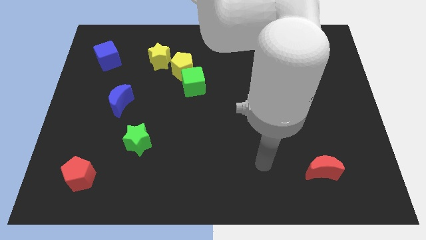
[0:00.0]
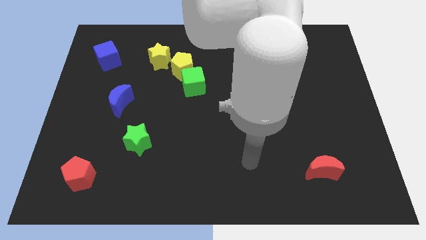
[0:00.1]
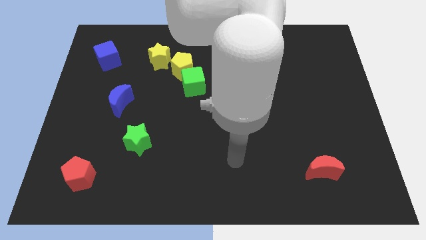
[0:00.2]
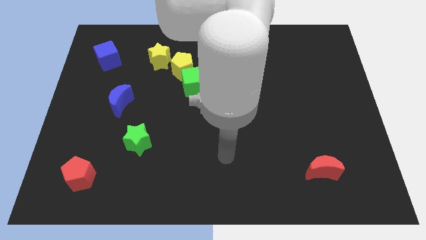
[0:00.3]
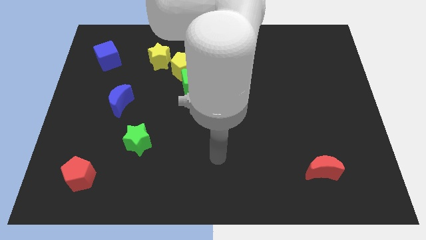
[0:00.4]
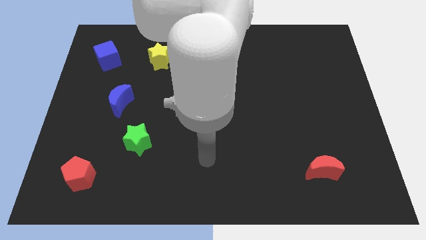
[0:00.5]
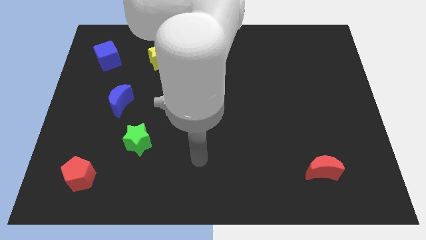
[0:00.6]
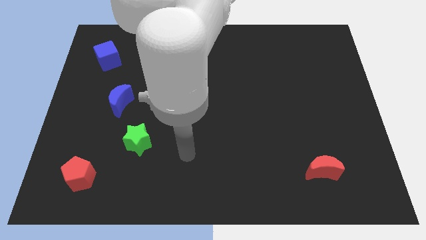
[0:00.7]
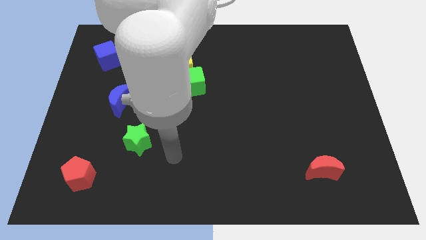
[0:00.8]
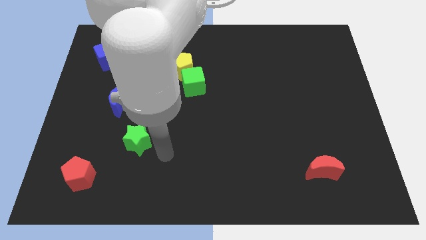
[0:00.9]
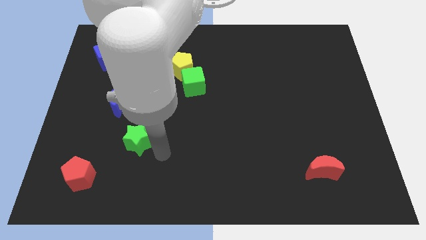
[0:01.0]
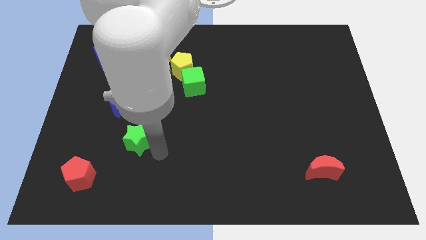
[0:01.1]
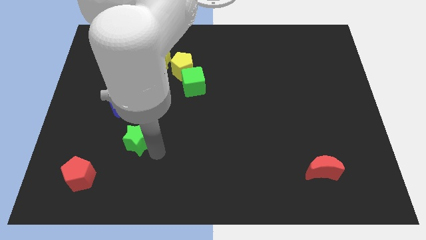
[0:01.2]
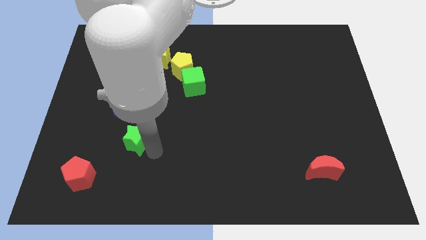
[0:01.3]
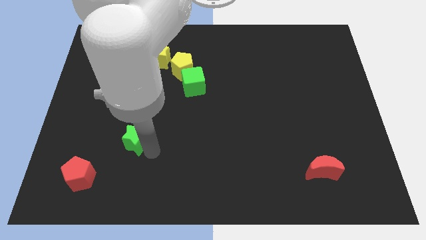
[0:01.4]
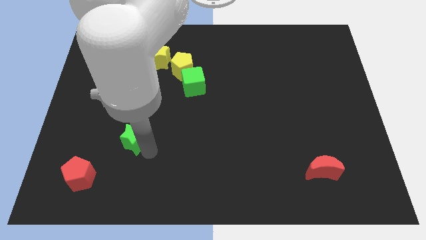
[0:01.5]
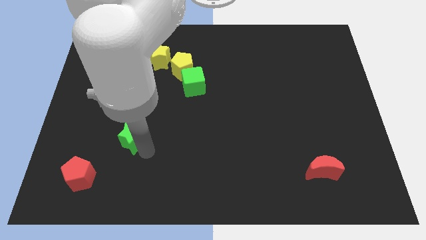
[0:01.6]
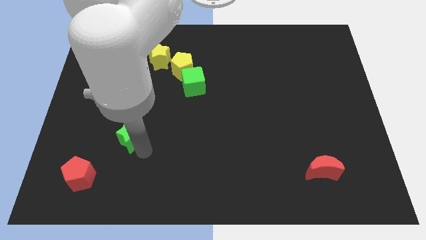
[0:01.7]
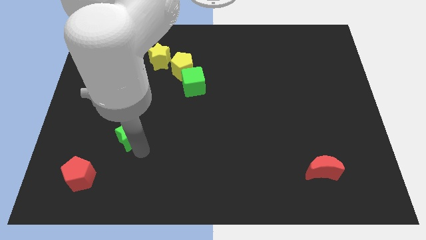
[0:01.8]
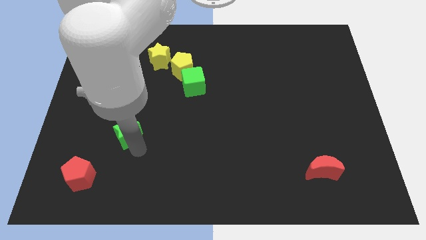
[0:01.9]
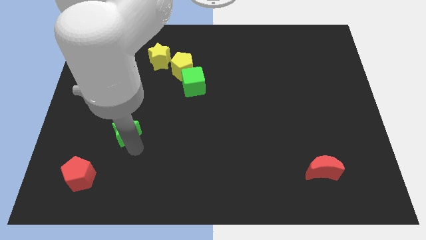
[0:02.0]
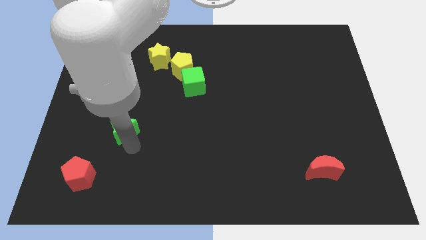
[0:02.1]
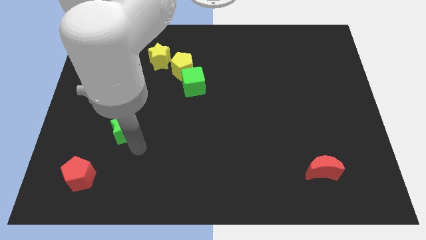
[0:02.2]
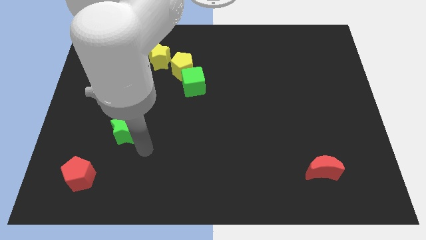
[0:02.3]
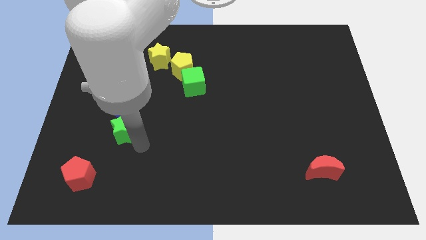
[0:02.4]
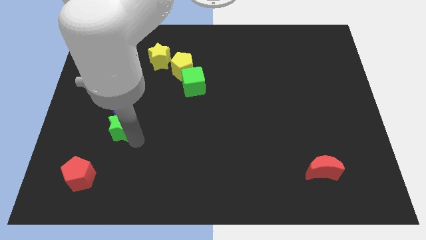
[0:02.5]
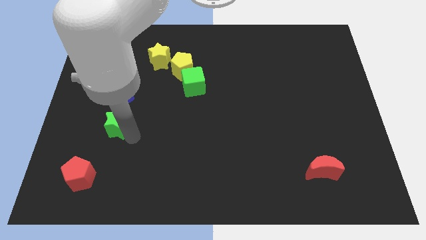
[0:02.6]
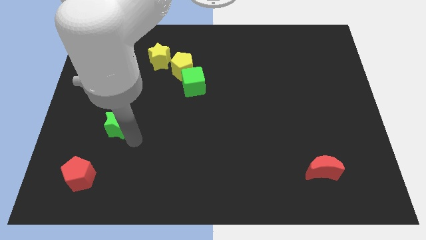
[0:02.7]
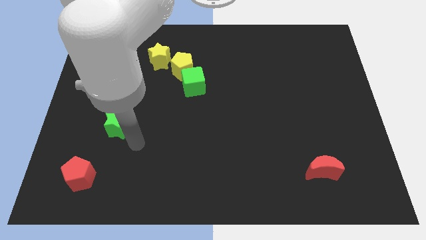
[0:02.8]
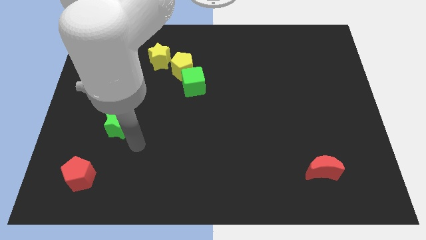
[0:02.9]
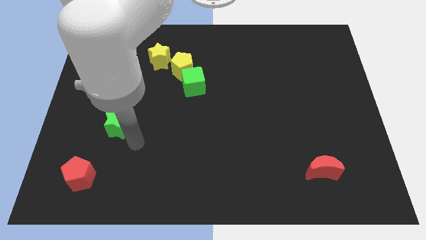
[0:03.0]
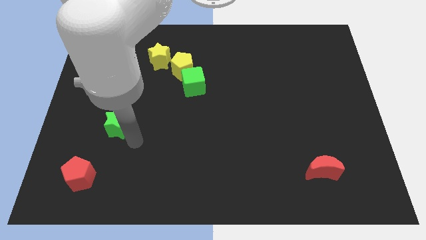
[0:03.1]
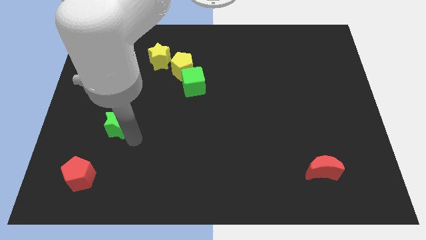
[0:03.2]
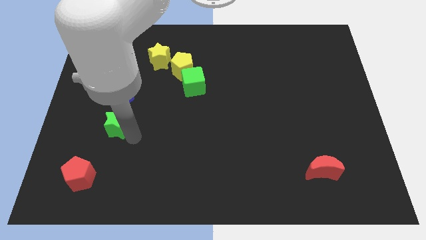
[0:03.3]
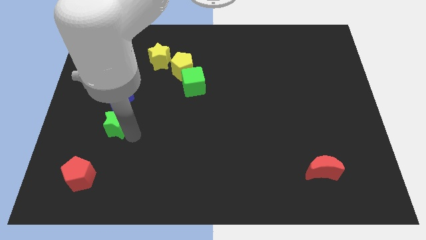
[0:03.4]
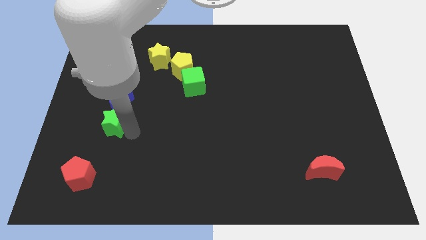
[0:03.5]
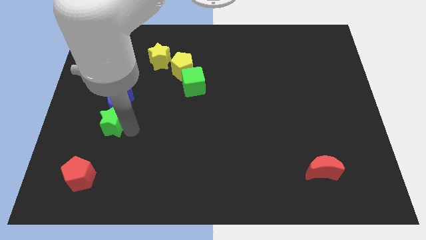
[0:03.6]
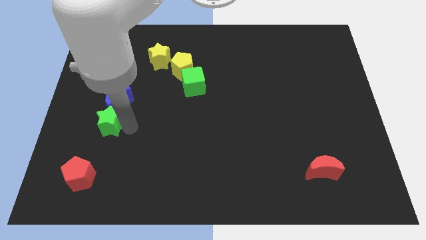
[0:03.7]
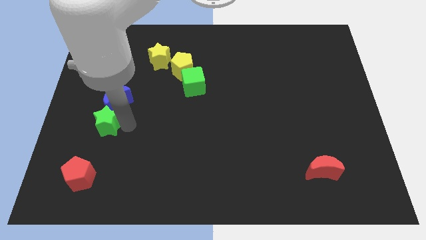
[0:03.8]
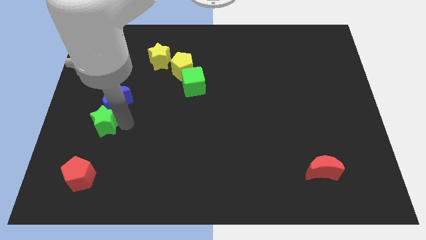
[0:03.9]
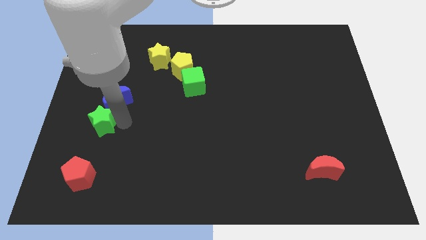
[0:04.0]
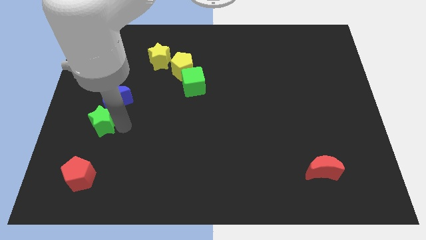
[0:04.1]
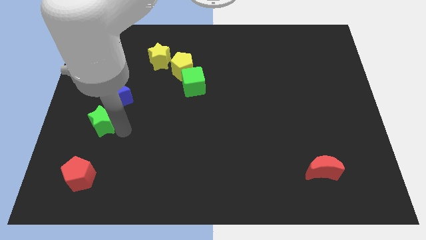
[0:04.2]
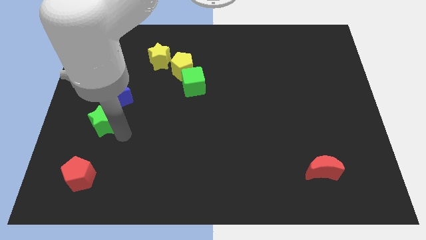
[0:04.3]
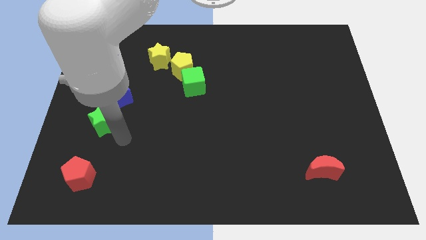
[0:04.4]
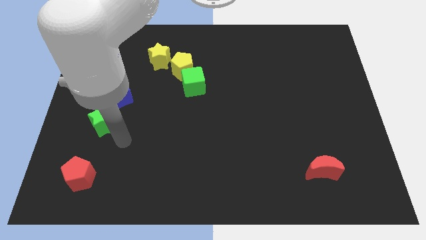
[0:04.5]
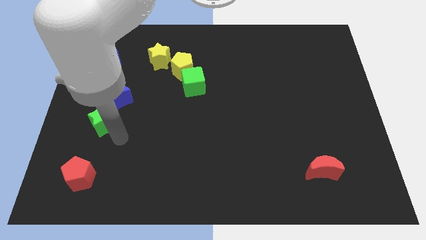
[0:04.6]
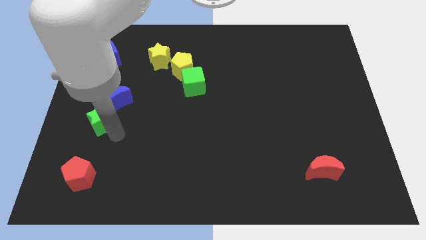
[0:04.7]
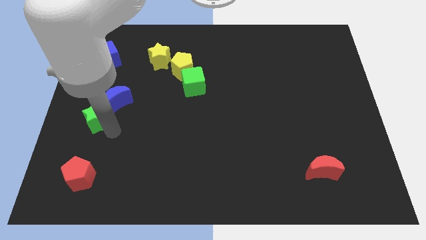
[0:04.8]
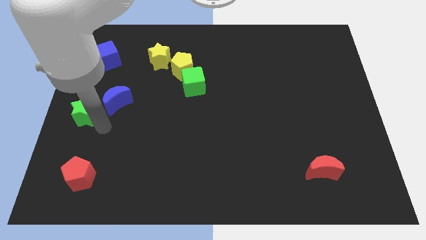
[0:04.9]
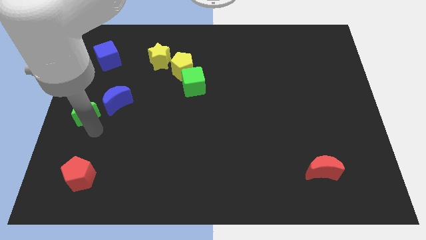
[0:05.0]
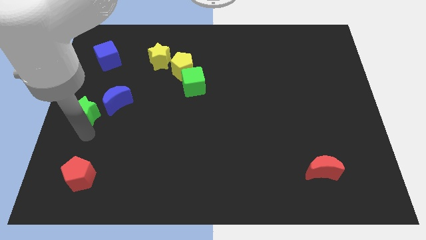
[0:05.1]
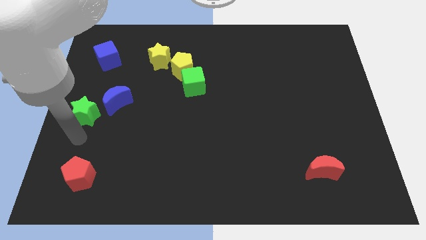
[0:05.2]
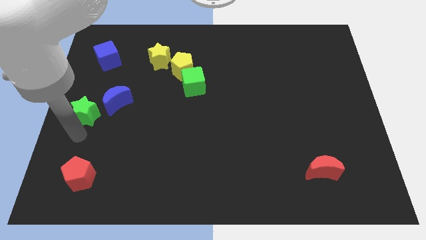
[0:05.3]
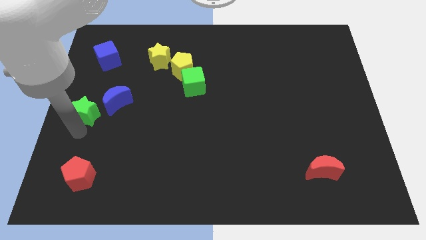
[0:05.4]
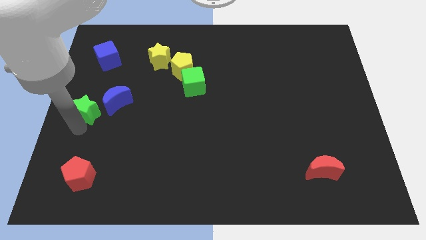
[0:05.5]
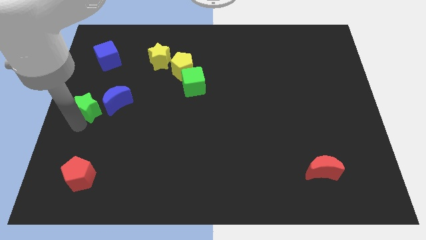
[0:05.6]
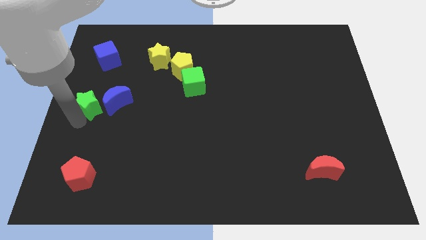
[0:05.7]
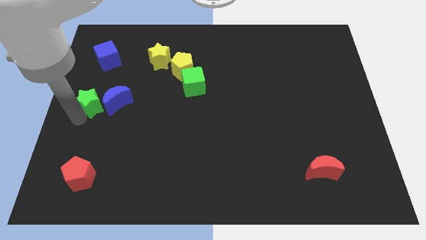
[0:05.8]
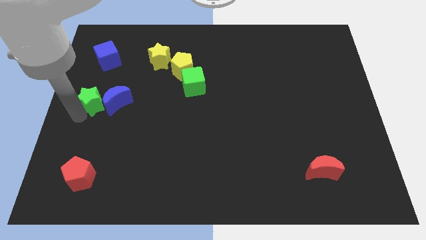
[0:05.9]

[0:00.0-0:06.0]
slide the green star to the top left side of the blue moon
